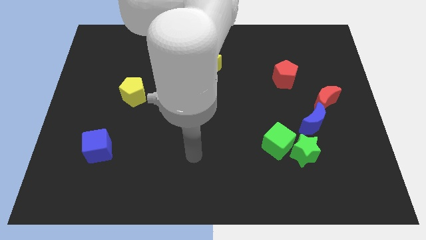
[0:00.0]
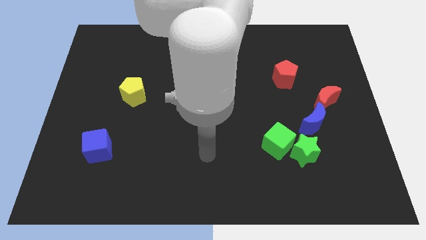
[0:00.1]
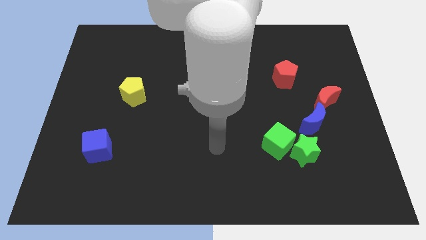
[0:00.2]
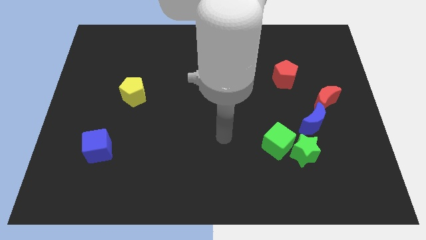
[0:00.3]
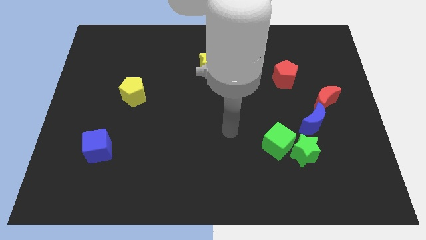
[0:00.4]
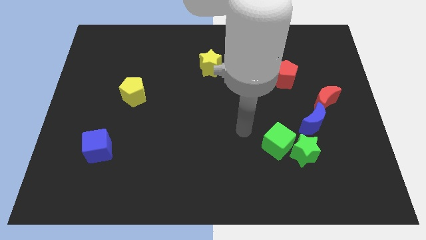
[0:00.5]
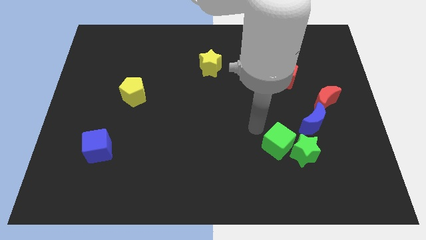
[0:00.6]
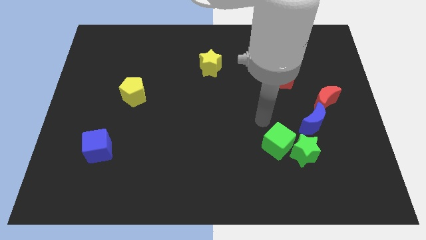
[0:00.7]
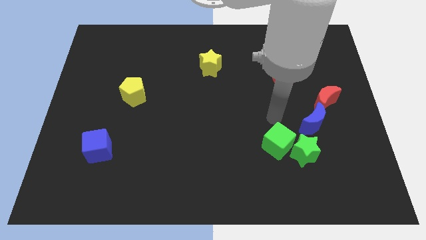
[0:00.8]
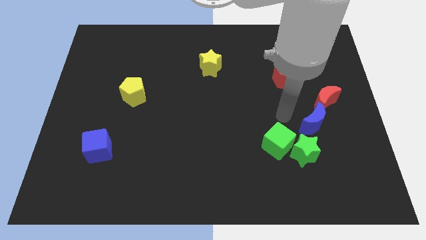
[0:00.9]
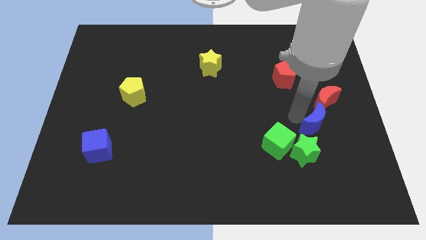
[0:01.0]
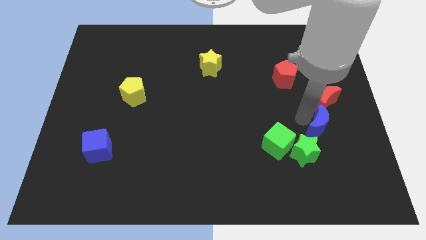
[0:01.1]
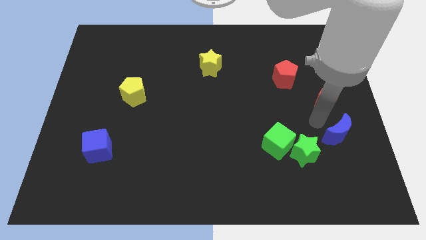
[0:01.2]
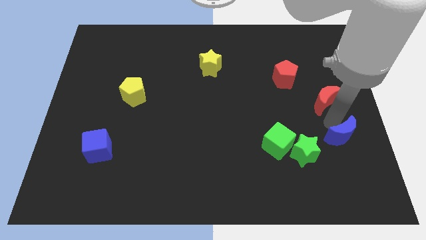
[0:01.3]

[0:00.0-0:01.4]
separate the red moon from the blue moon

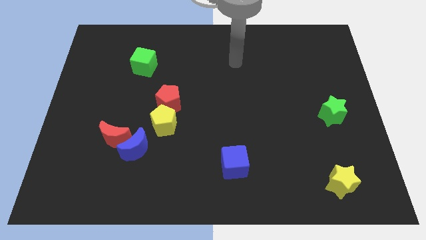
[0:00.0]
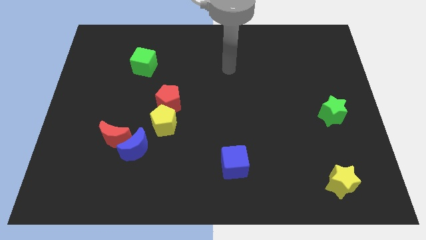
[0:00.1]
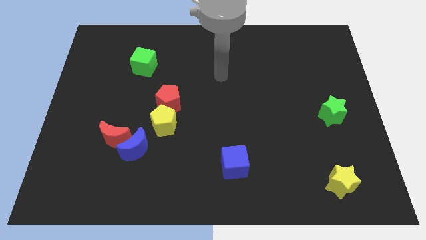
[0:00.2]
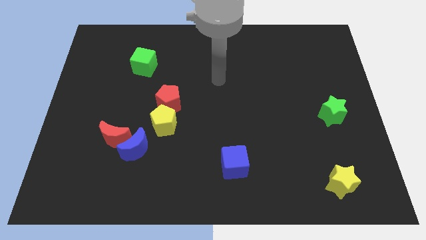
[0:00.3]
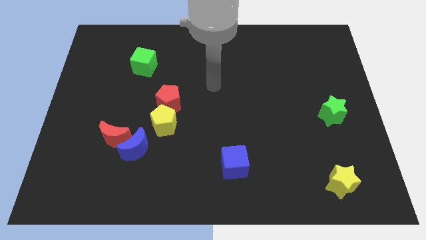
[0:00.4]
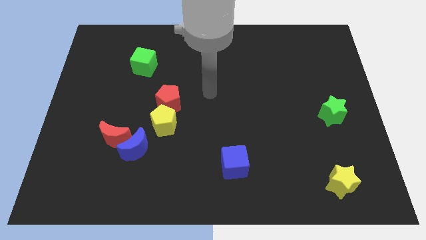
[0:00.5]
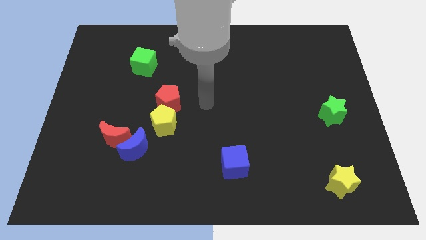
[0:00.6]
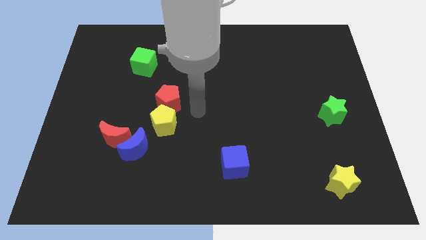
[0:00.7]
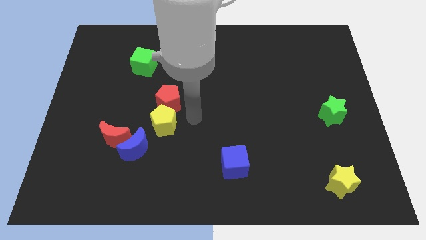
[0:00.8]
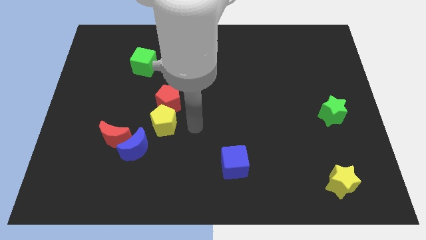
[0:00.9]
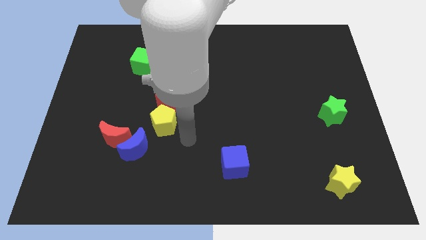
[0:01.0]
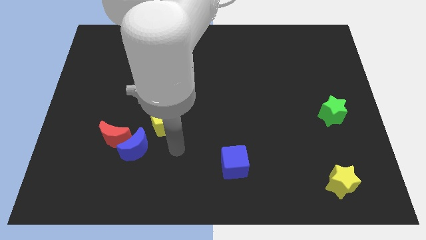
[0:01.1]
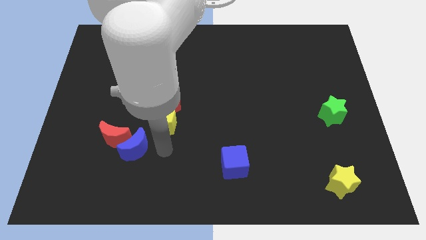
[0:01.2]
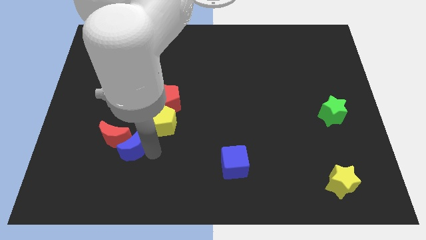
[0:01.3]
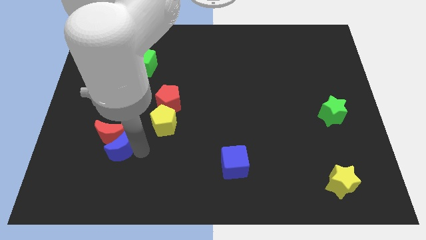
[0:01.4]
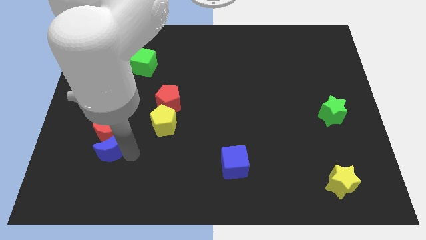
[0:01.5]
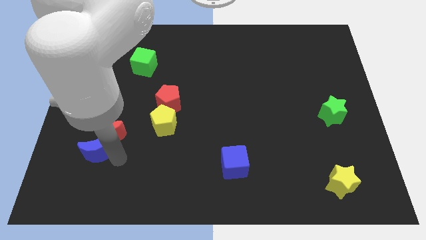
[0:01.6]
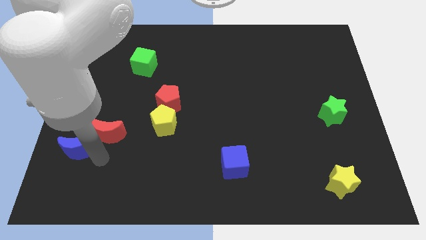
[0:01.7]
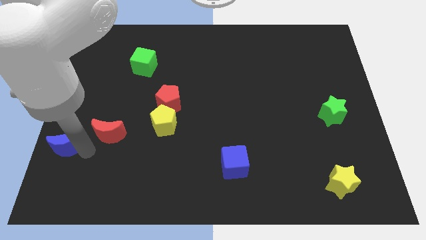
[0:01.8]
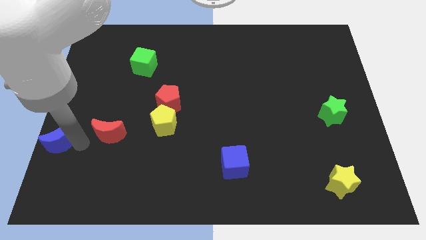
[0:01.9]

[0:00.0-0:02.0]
move the red moon away from the blue moon

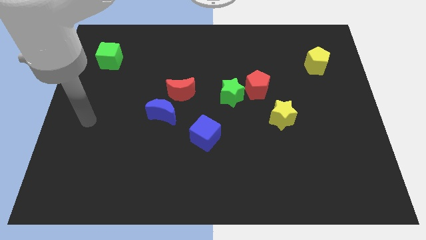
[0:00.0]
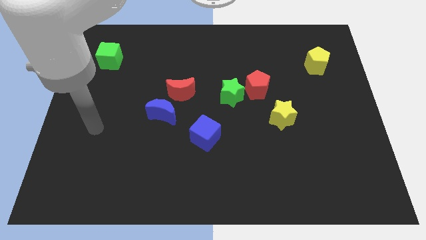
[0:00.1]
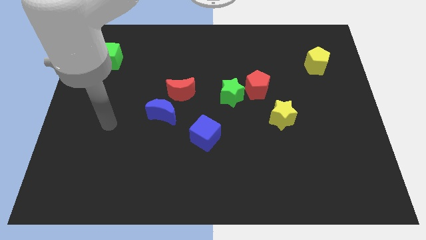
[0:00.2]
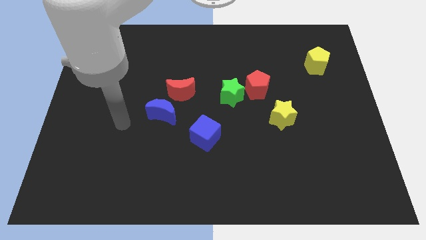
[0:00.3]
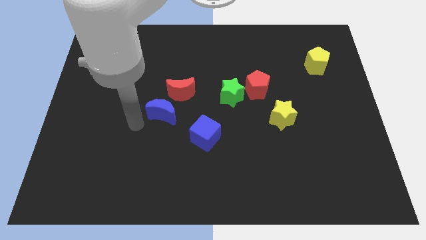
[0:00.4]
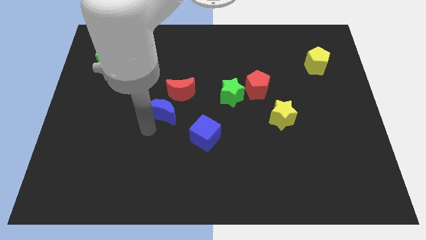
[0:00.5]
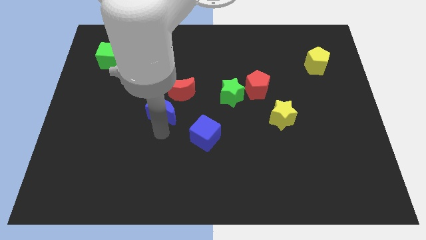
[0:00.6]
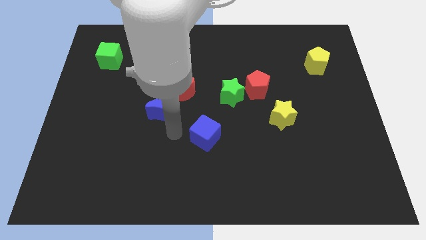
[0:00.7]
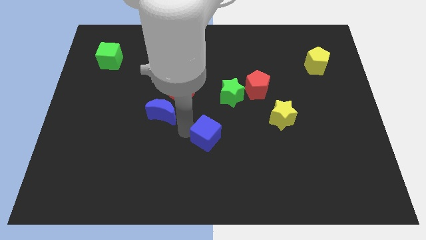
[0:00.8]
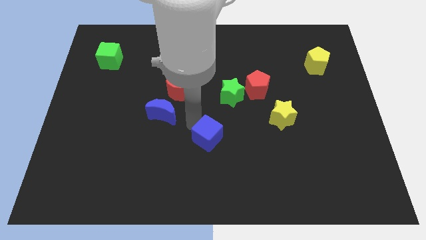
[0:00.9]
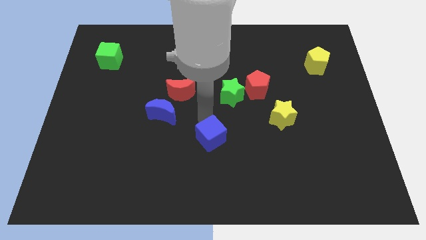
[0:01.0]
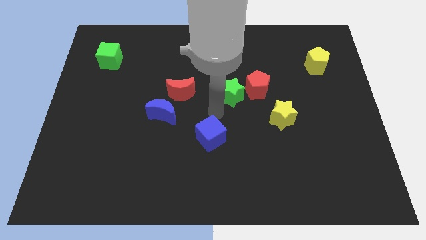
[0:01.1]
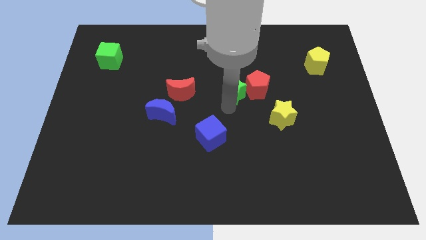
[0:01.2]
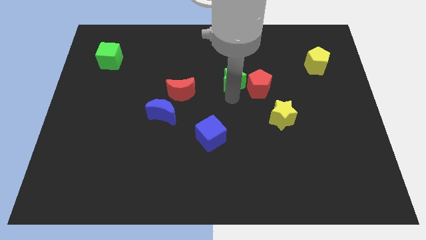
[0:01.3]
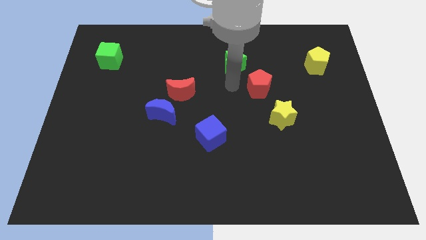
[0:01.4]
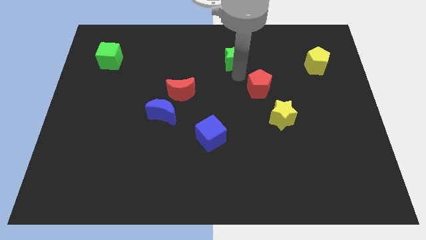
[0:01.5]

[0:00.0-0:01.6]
move the red pentagon away from the green star

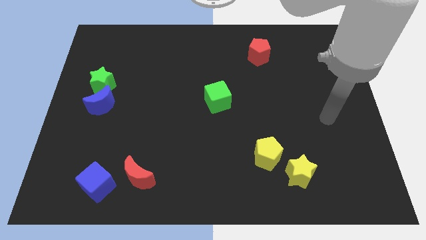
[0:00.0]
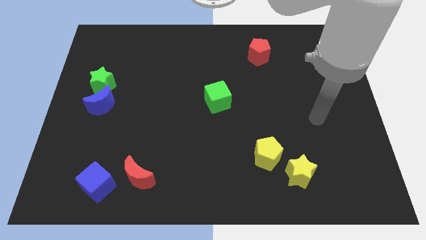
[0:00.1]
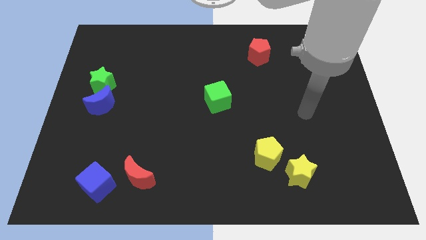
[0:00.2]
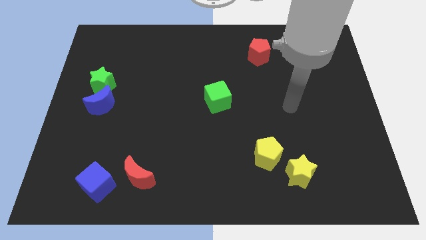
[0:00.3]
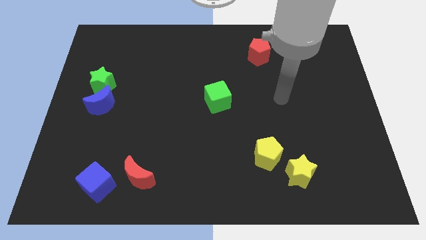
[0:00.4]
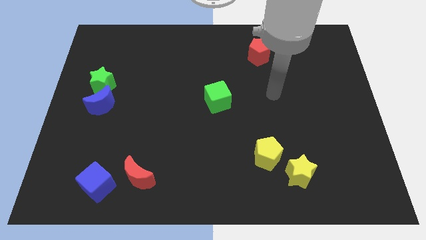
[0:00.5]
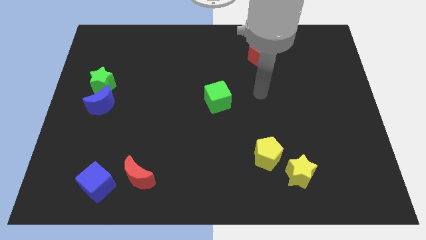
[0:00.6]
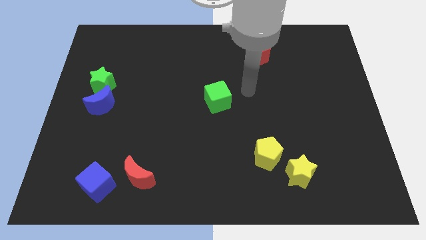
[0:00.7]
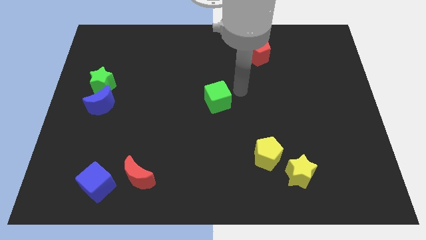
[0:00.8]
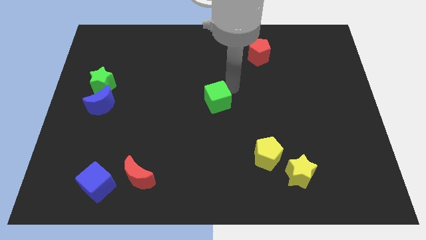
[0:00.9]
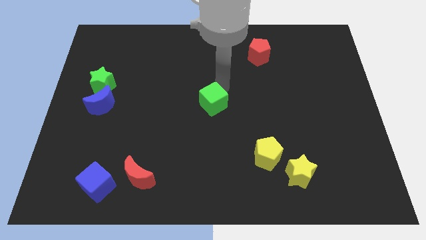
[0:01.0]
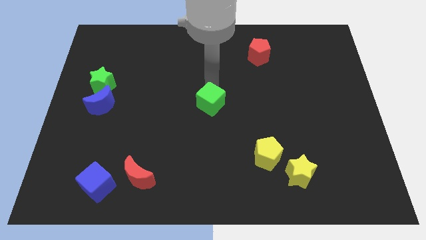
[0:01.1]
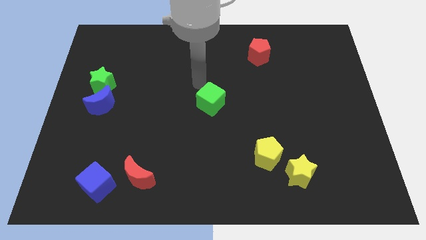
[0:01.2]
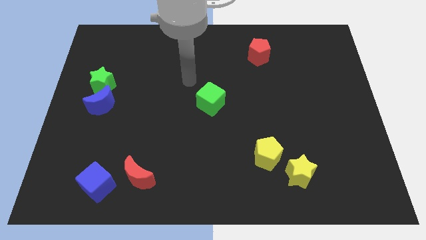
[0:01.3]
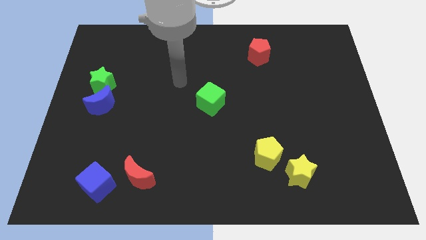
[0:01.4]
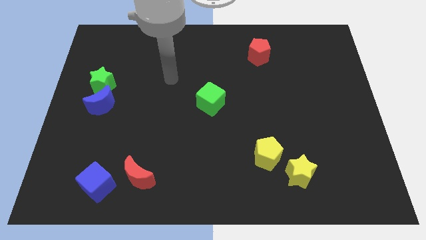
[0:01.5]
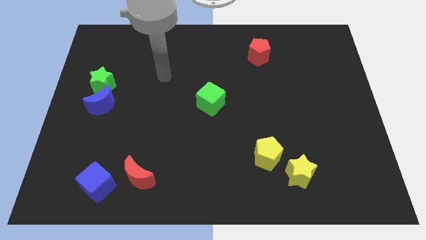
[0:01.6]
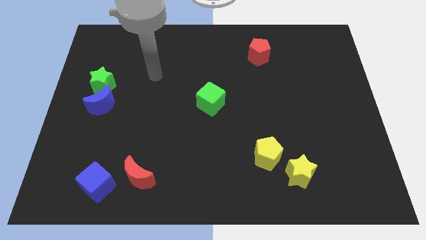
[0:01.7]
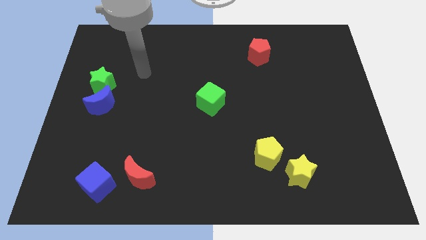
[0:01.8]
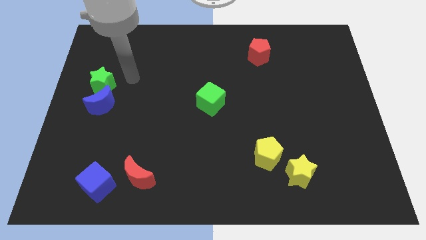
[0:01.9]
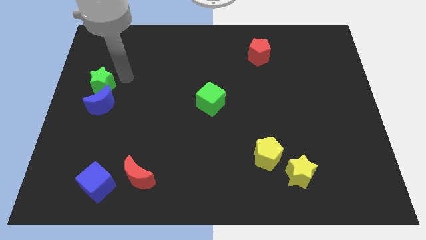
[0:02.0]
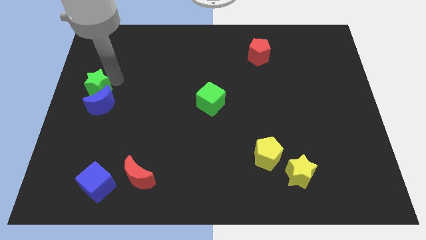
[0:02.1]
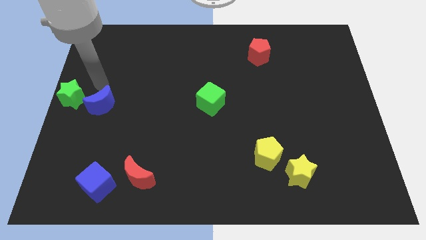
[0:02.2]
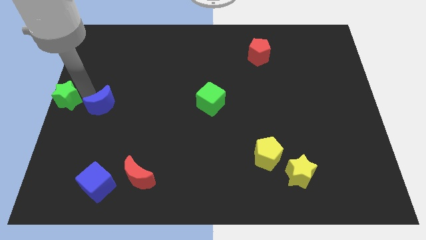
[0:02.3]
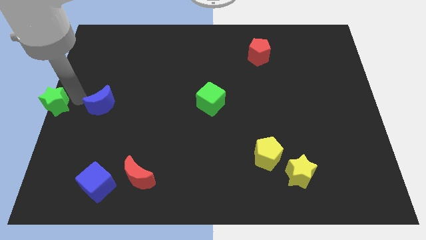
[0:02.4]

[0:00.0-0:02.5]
separate the blue moon from the green star

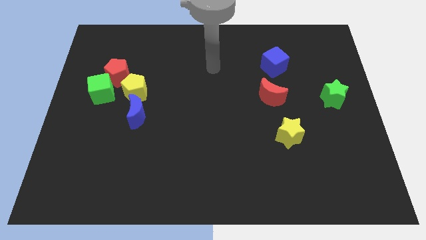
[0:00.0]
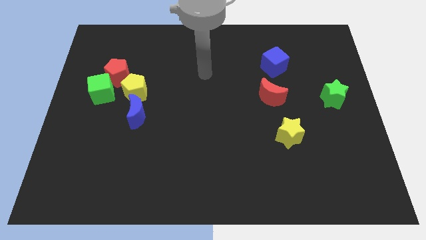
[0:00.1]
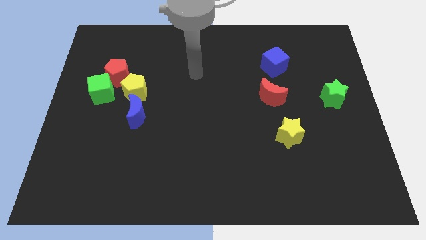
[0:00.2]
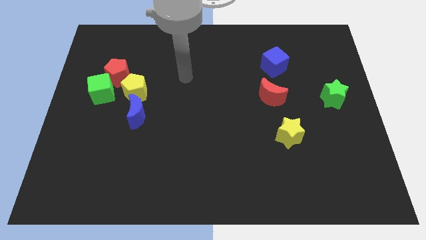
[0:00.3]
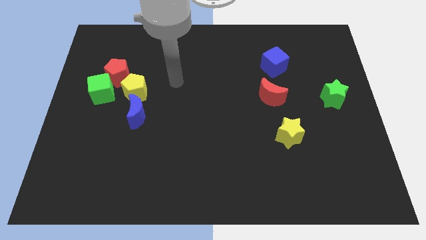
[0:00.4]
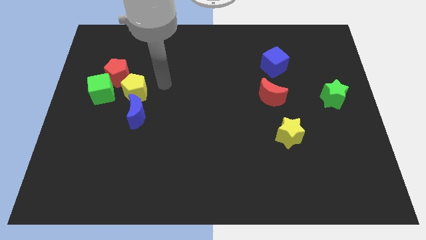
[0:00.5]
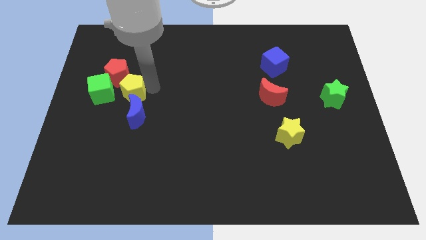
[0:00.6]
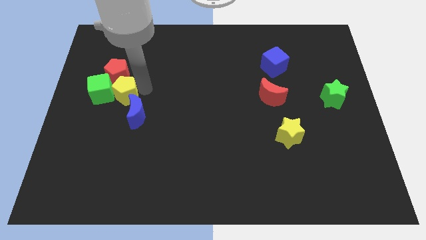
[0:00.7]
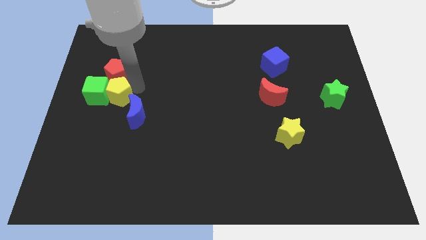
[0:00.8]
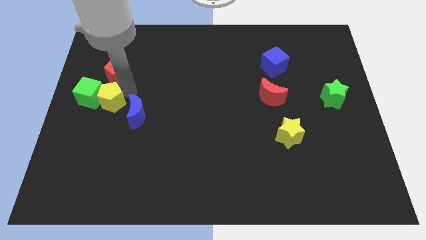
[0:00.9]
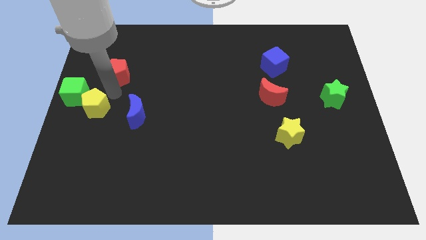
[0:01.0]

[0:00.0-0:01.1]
pull the red pentagon apart from the green cube and yellow pentagon

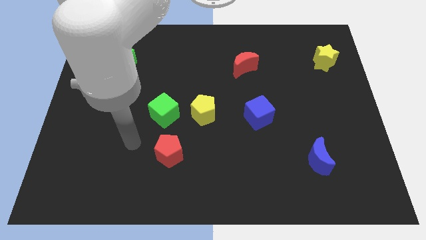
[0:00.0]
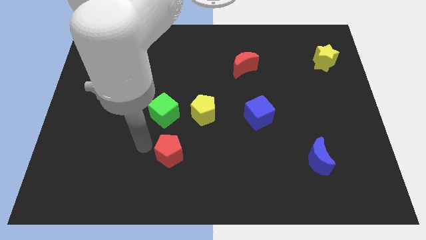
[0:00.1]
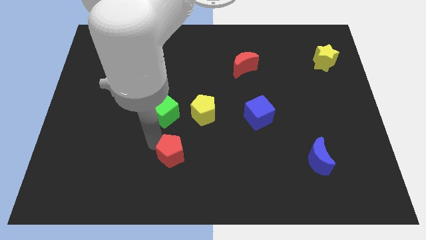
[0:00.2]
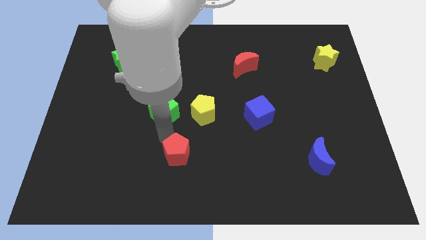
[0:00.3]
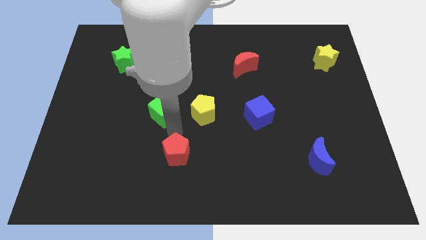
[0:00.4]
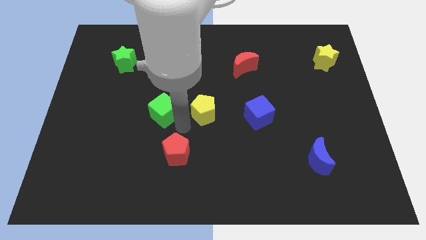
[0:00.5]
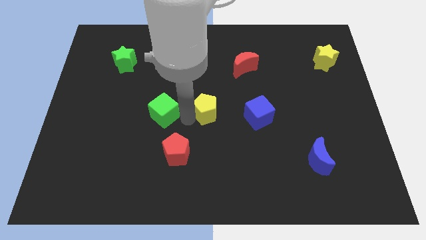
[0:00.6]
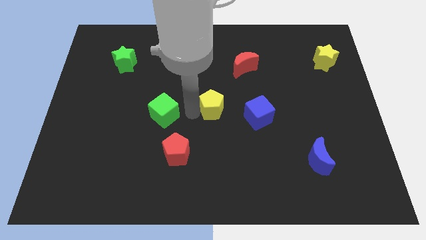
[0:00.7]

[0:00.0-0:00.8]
move the green cube away from the yellow pentagon
